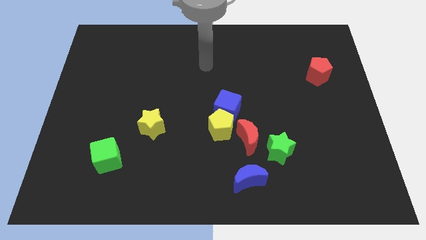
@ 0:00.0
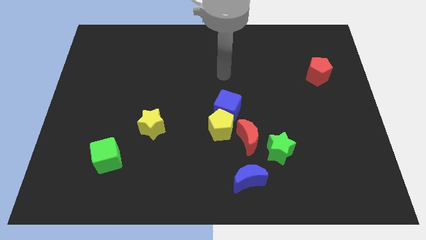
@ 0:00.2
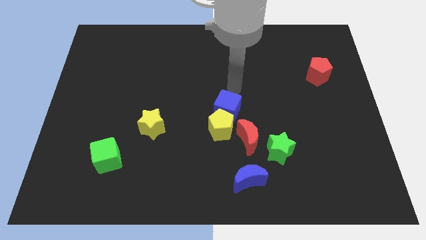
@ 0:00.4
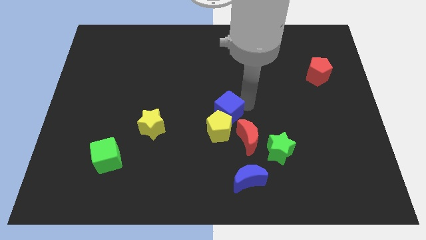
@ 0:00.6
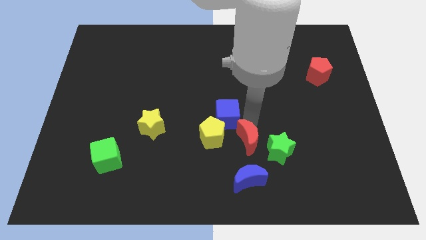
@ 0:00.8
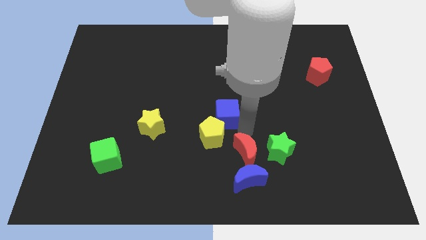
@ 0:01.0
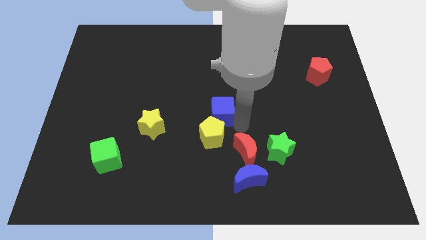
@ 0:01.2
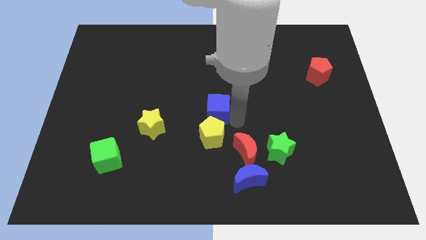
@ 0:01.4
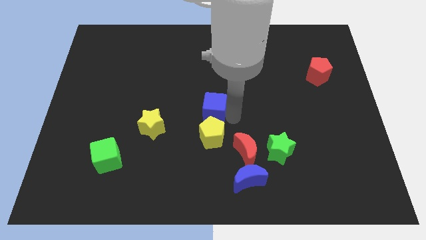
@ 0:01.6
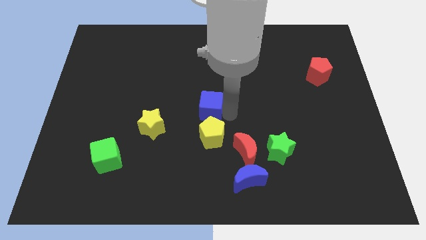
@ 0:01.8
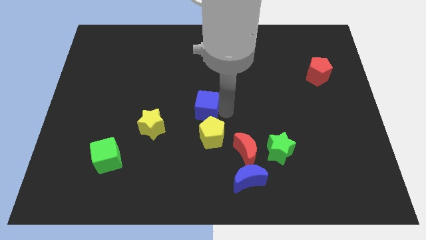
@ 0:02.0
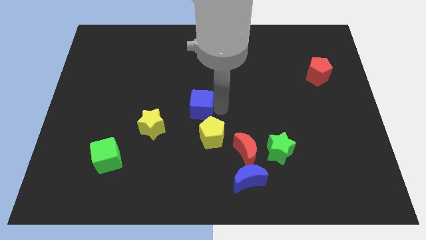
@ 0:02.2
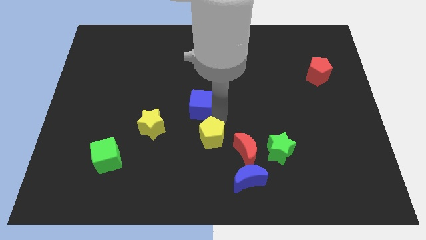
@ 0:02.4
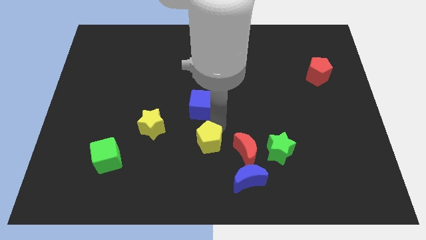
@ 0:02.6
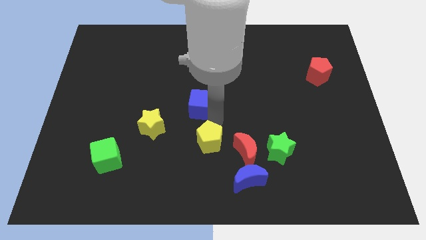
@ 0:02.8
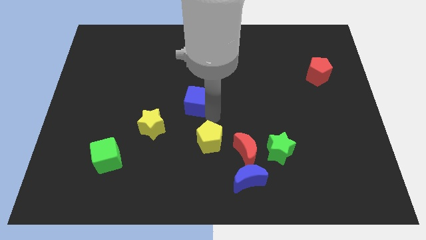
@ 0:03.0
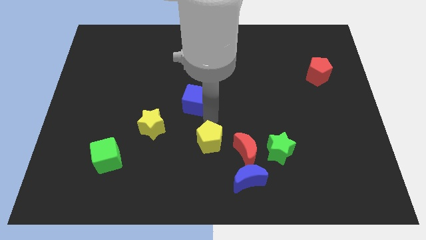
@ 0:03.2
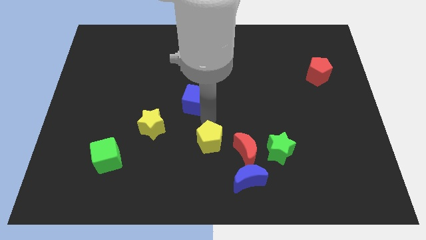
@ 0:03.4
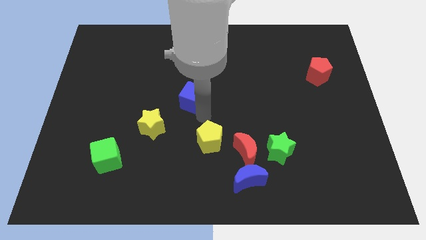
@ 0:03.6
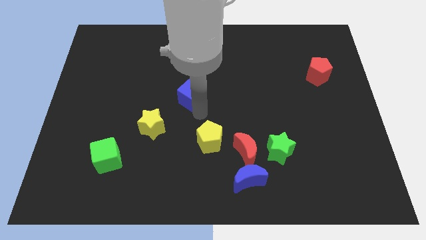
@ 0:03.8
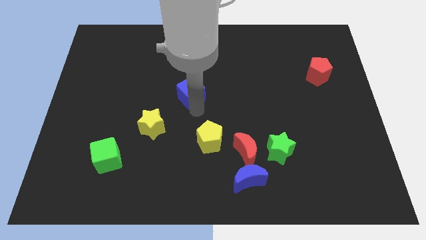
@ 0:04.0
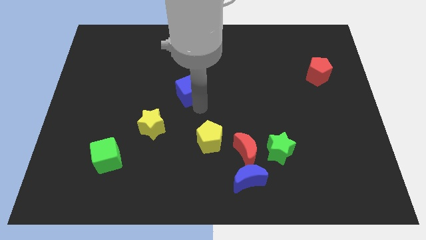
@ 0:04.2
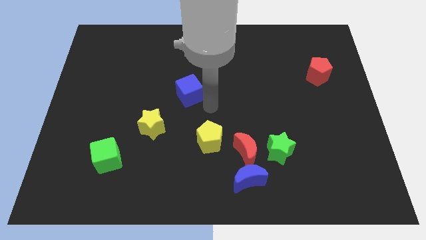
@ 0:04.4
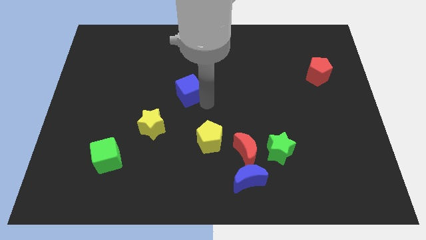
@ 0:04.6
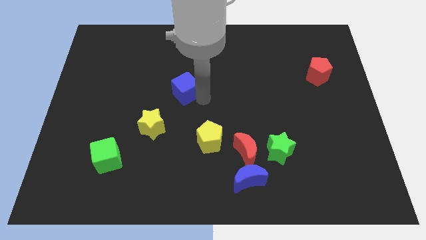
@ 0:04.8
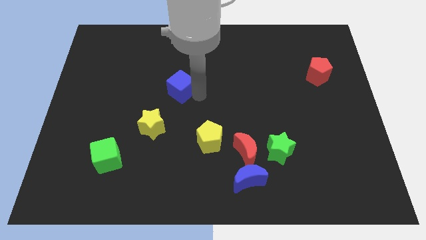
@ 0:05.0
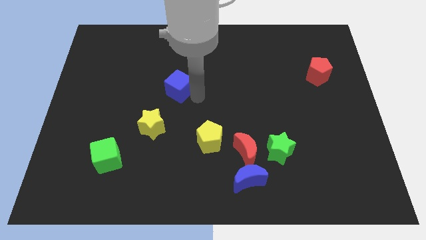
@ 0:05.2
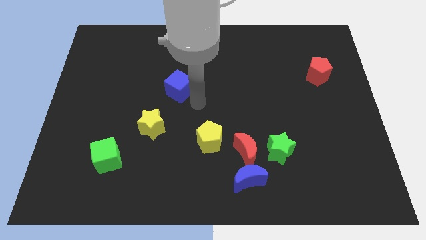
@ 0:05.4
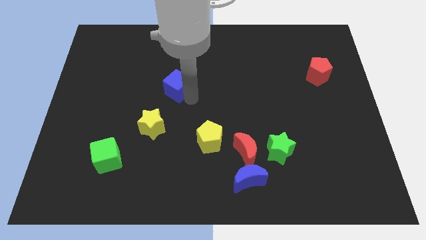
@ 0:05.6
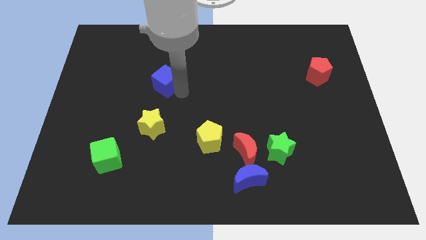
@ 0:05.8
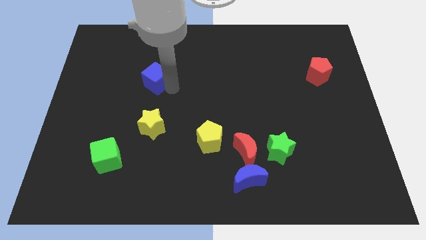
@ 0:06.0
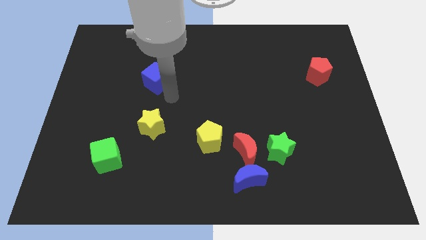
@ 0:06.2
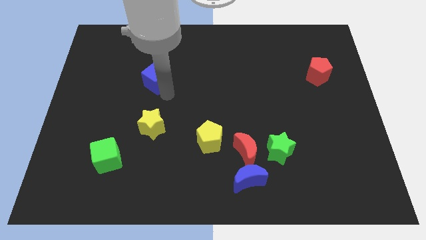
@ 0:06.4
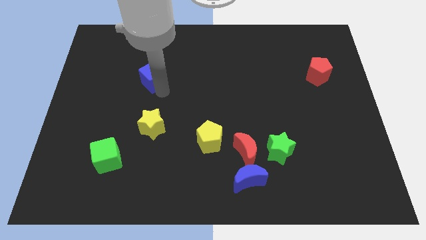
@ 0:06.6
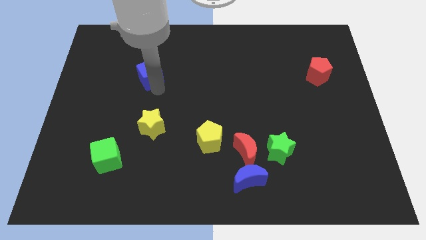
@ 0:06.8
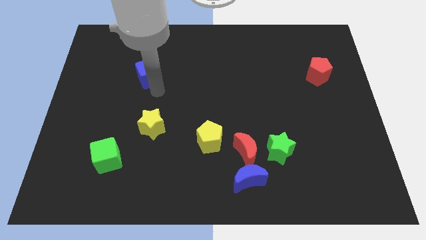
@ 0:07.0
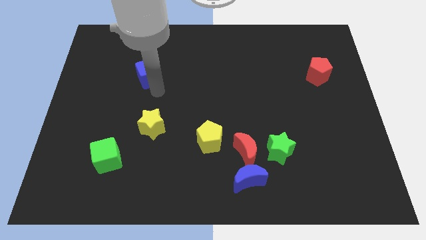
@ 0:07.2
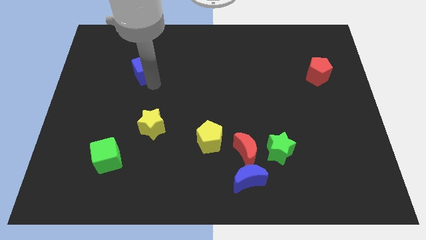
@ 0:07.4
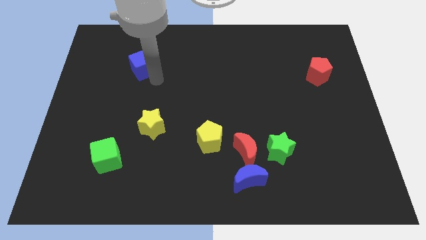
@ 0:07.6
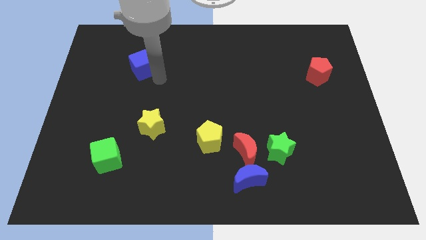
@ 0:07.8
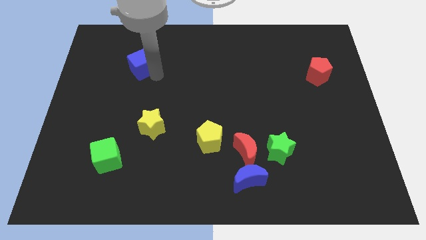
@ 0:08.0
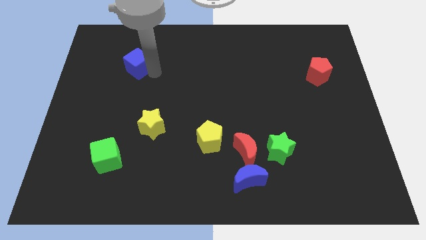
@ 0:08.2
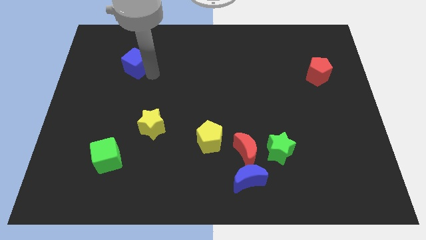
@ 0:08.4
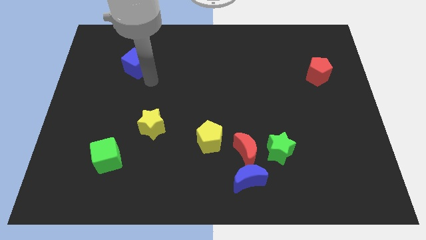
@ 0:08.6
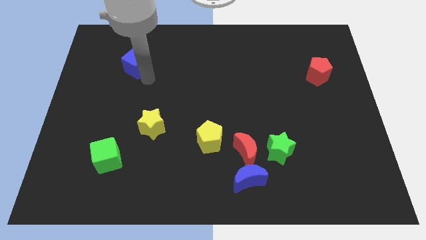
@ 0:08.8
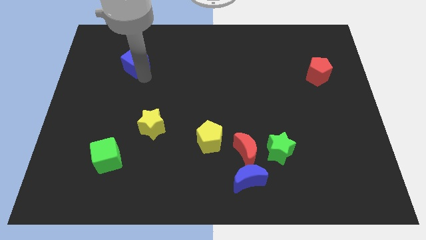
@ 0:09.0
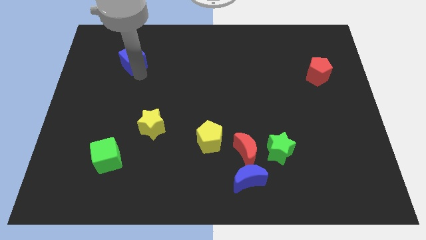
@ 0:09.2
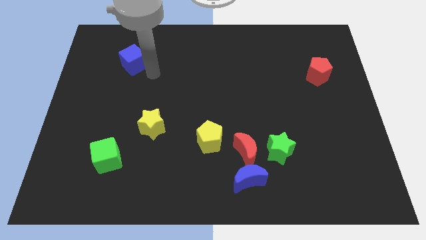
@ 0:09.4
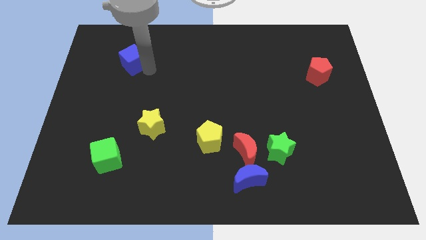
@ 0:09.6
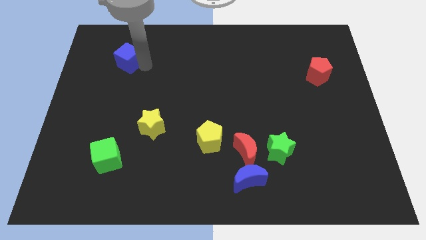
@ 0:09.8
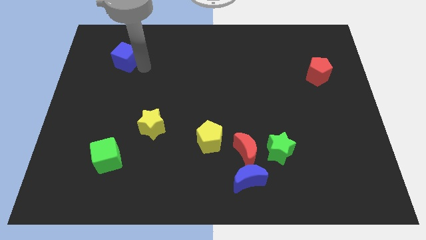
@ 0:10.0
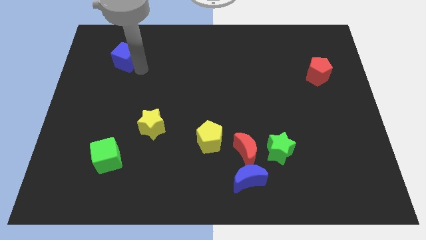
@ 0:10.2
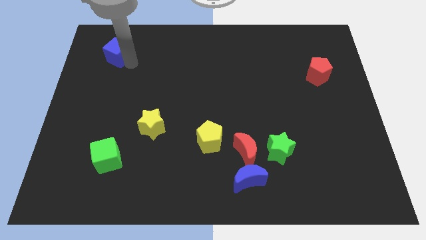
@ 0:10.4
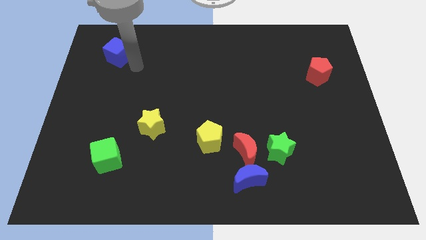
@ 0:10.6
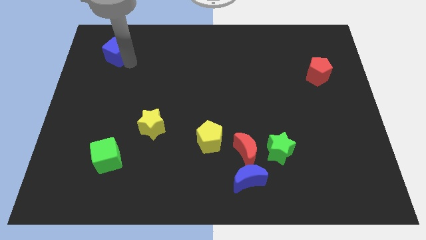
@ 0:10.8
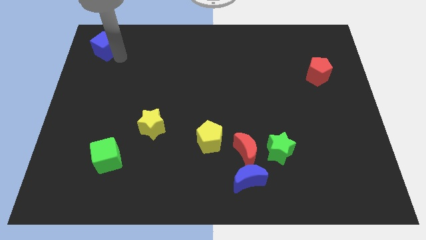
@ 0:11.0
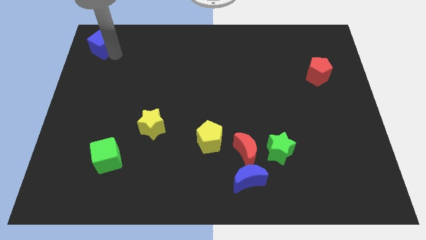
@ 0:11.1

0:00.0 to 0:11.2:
move the blue cube to the top left of the board

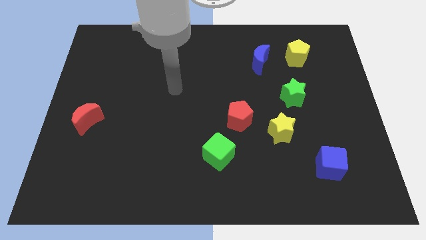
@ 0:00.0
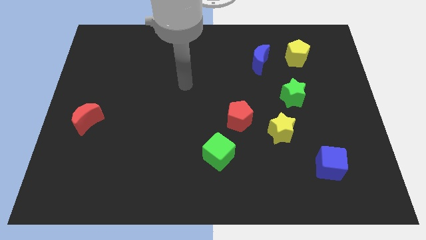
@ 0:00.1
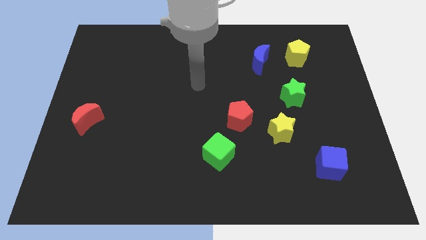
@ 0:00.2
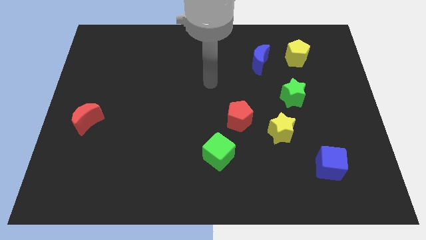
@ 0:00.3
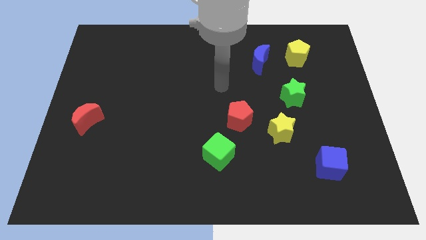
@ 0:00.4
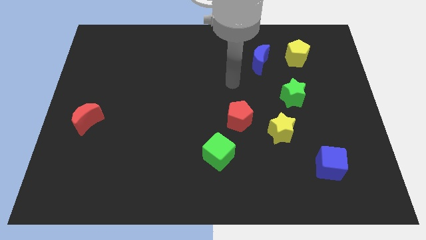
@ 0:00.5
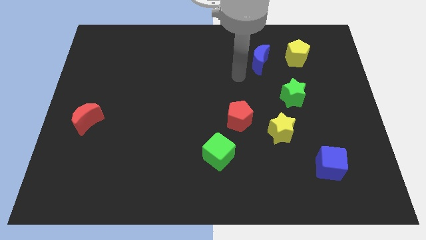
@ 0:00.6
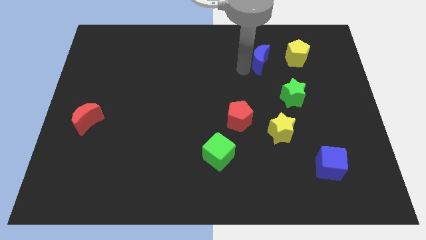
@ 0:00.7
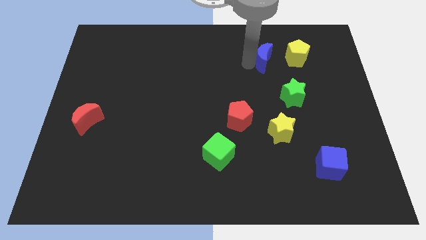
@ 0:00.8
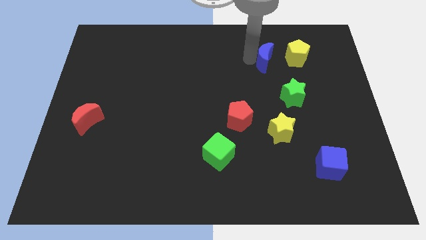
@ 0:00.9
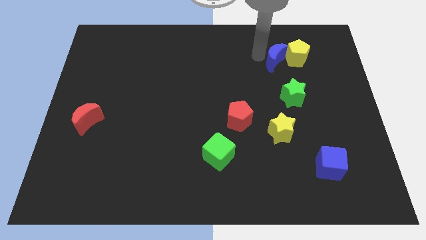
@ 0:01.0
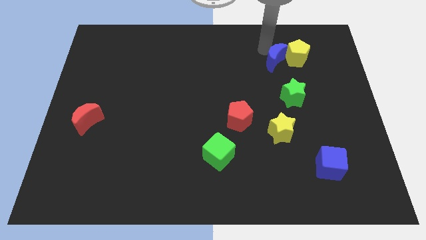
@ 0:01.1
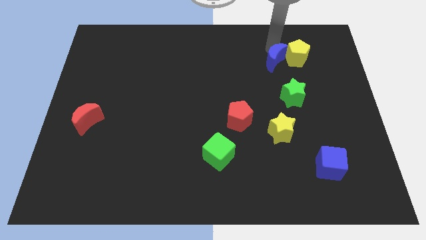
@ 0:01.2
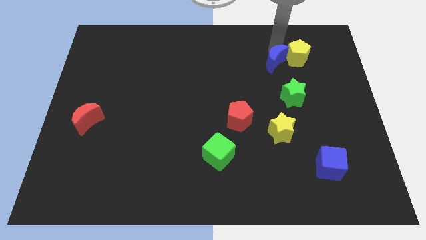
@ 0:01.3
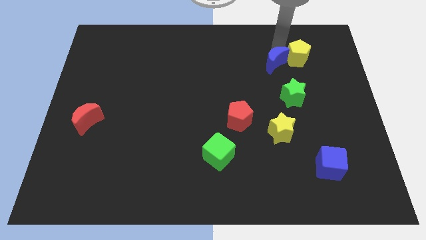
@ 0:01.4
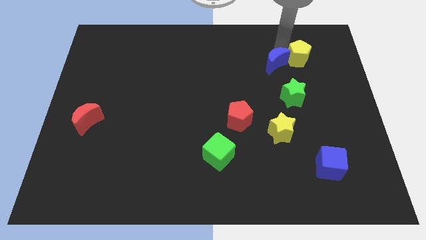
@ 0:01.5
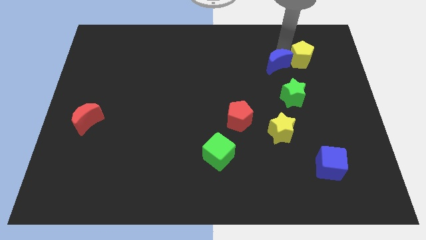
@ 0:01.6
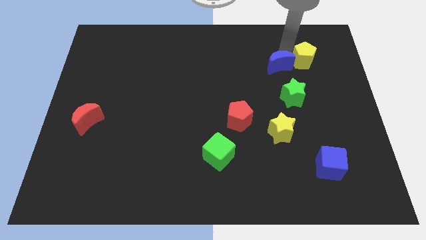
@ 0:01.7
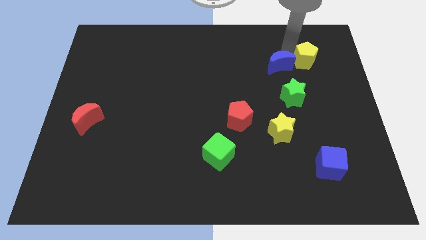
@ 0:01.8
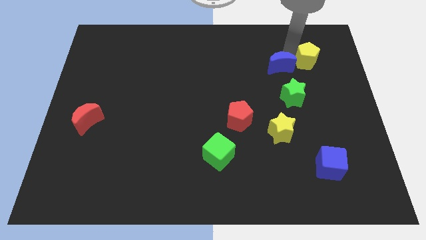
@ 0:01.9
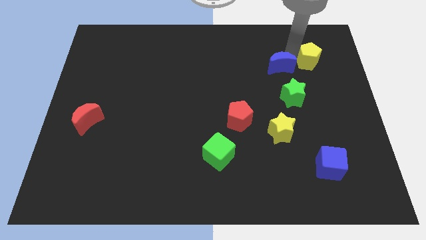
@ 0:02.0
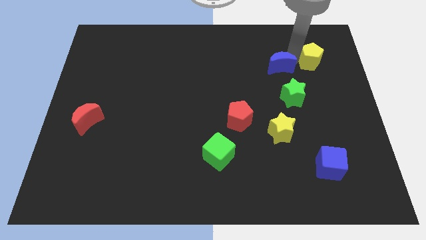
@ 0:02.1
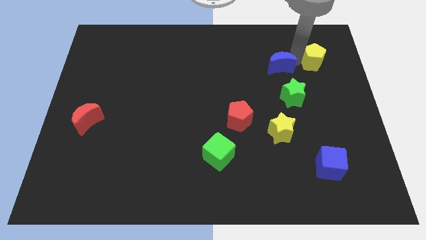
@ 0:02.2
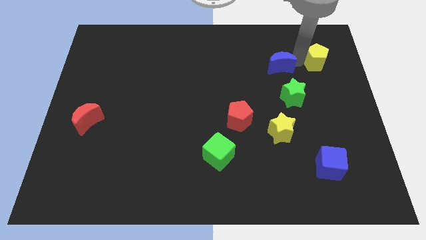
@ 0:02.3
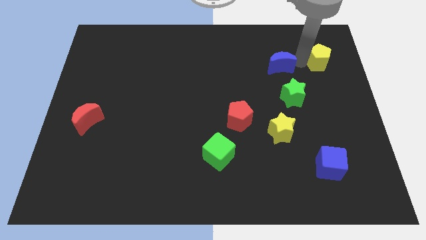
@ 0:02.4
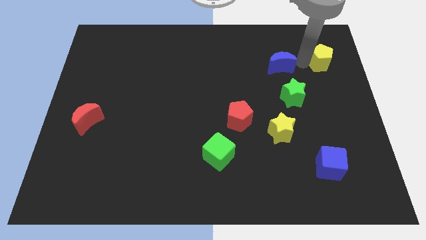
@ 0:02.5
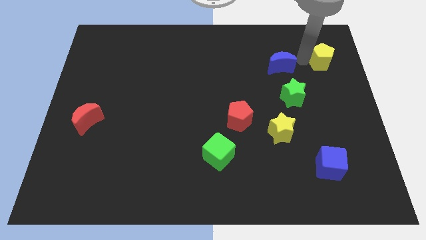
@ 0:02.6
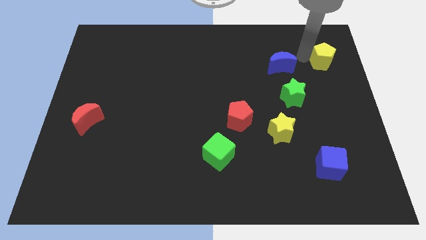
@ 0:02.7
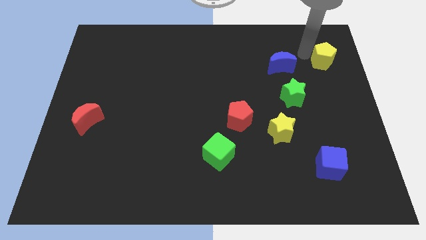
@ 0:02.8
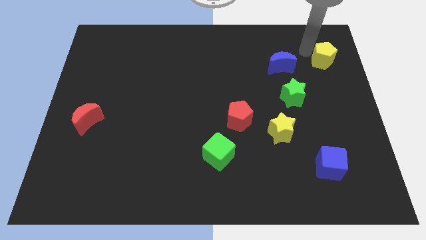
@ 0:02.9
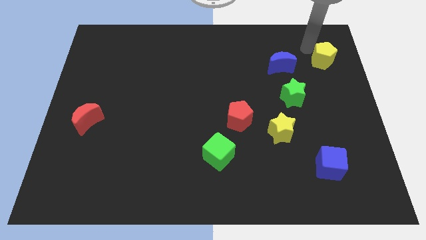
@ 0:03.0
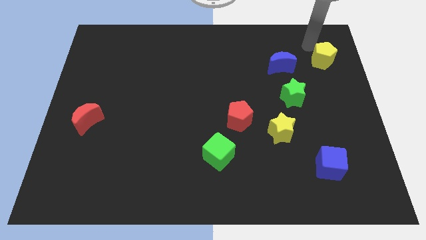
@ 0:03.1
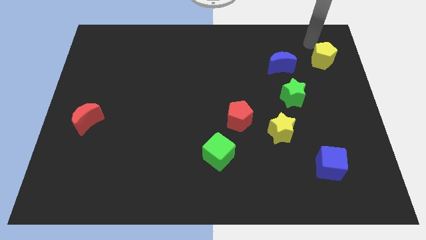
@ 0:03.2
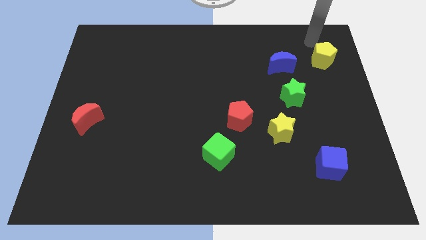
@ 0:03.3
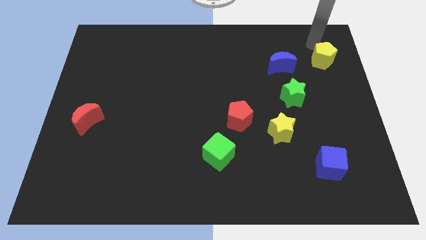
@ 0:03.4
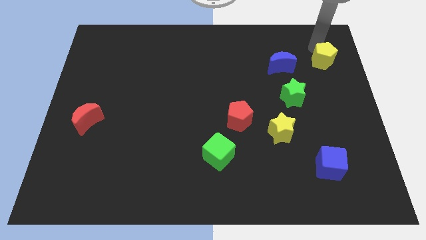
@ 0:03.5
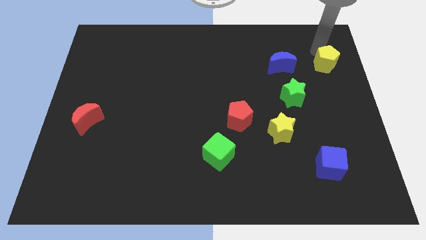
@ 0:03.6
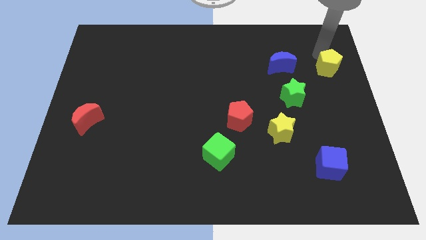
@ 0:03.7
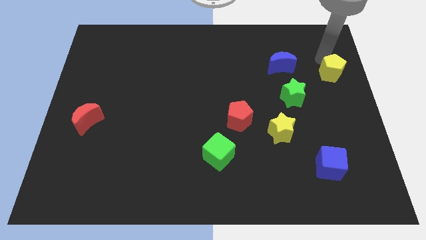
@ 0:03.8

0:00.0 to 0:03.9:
move the yellow pentagon to the right side of the board
